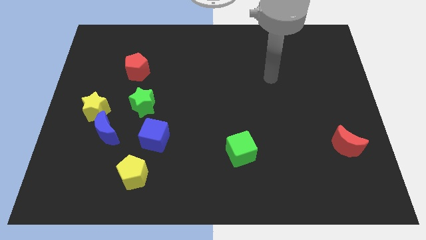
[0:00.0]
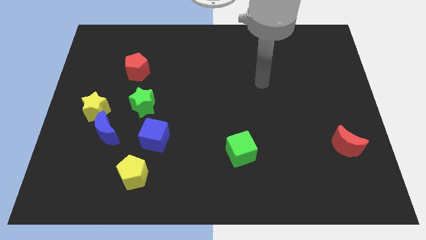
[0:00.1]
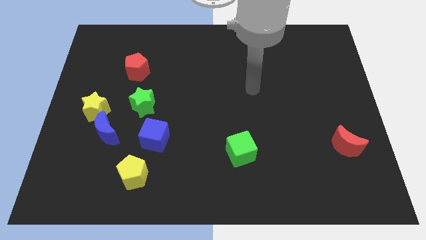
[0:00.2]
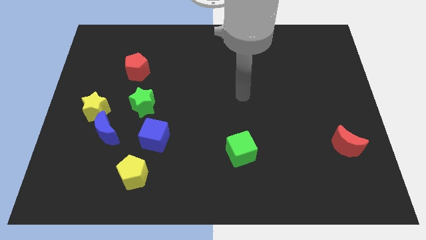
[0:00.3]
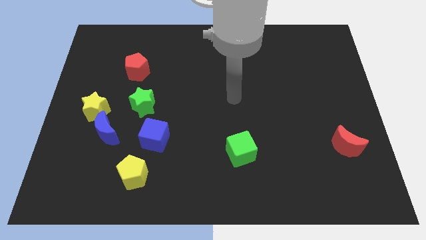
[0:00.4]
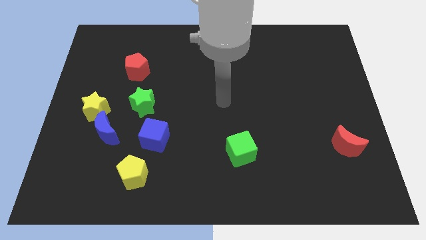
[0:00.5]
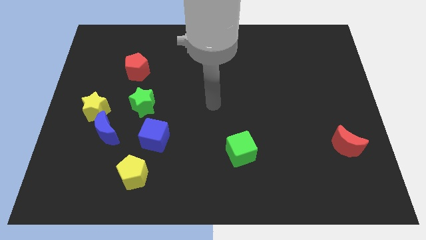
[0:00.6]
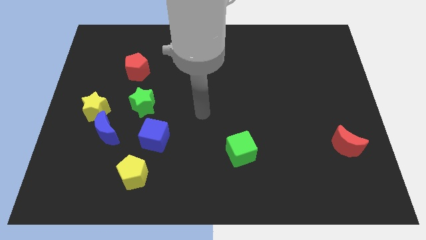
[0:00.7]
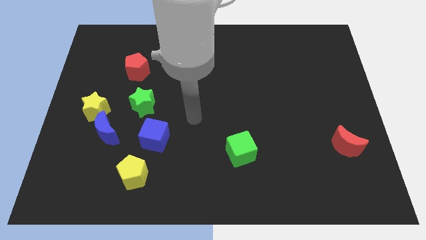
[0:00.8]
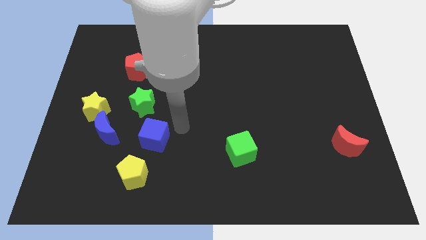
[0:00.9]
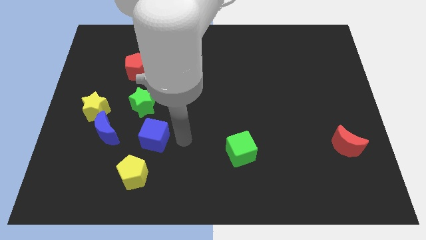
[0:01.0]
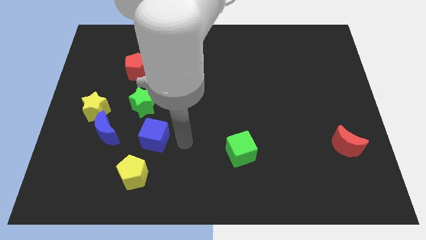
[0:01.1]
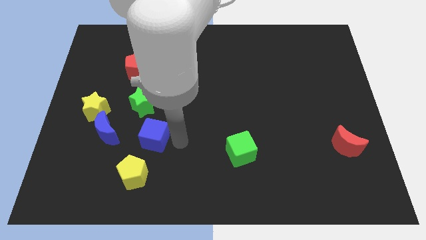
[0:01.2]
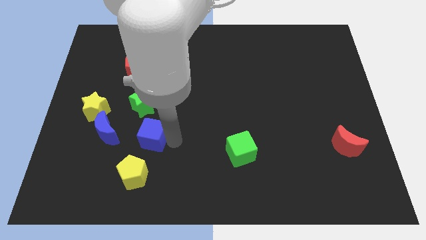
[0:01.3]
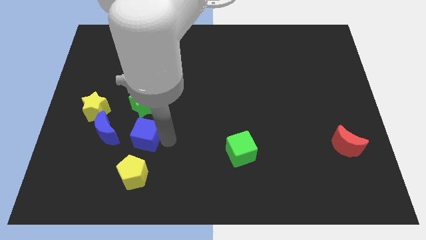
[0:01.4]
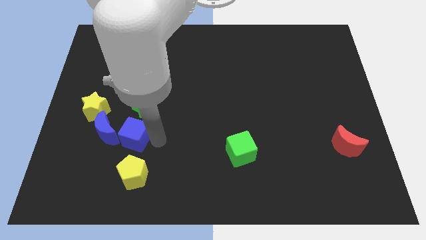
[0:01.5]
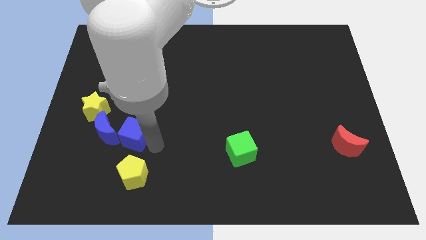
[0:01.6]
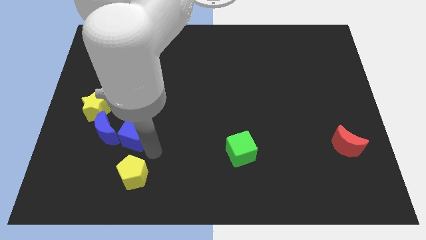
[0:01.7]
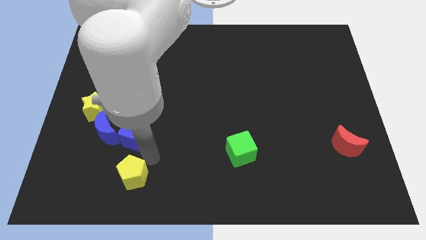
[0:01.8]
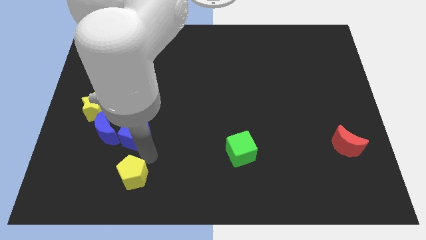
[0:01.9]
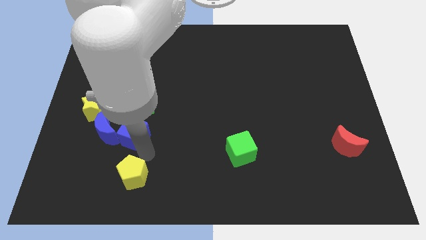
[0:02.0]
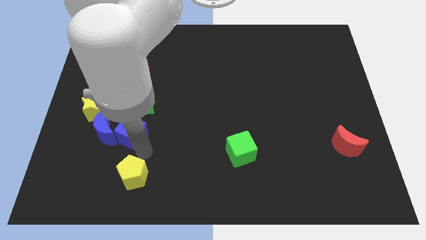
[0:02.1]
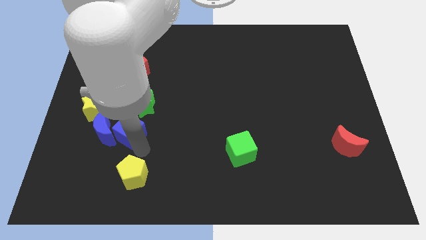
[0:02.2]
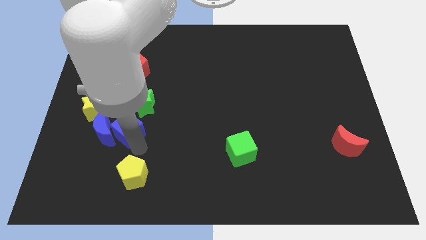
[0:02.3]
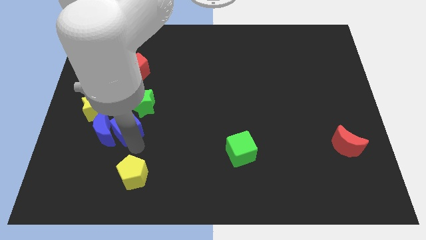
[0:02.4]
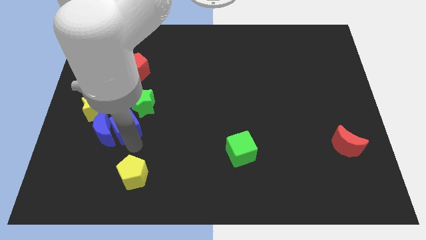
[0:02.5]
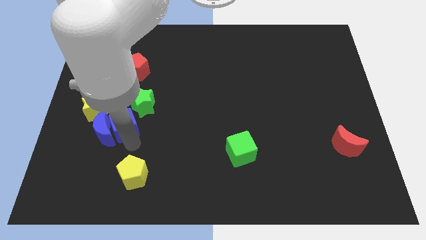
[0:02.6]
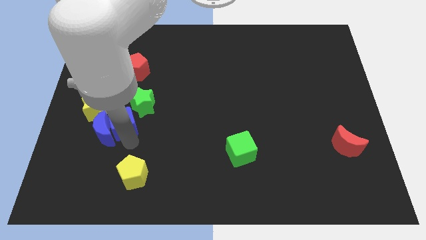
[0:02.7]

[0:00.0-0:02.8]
slightly slide the blue cube upwards and then left

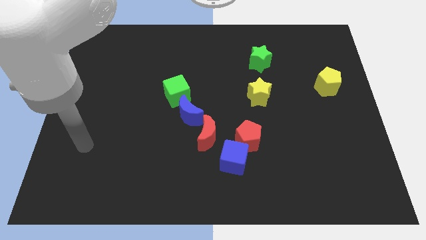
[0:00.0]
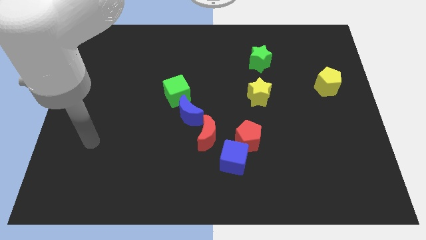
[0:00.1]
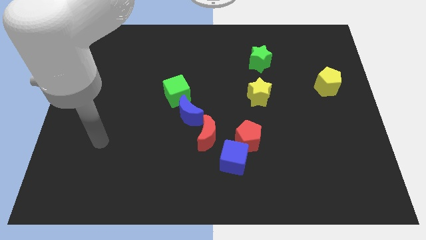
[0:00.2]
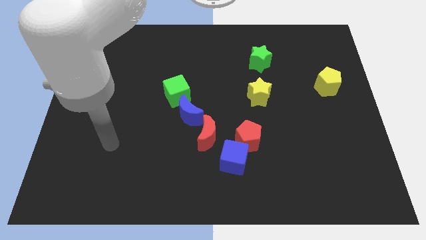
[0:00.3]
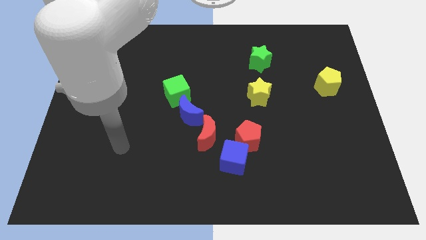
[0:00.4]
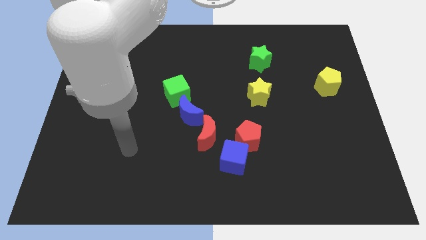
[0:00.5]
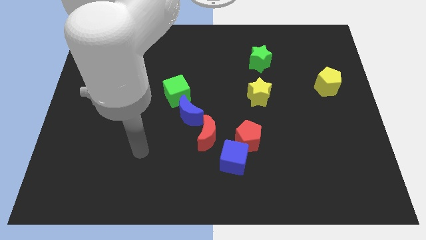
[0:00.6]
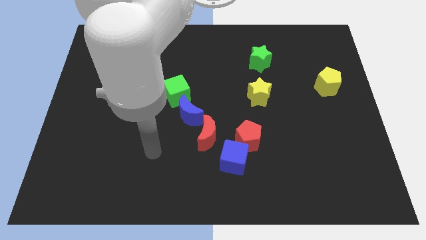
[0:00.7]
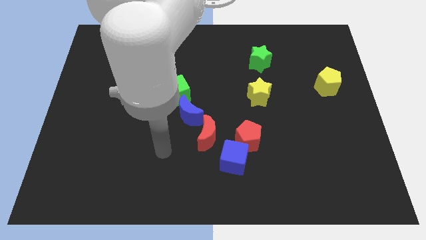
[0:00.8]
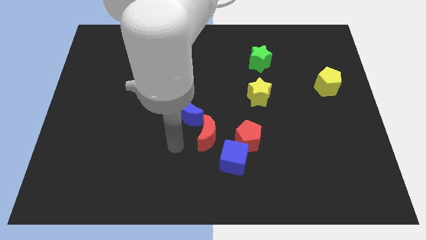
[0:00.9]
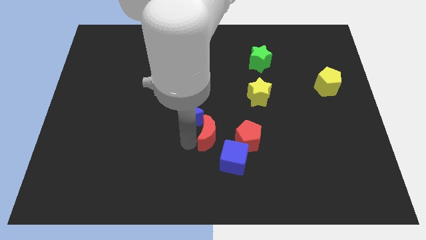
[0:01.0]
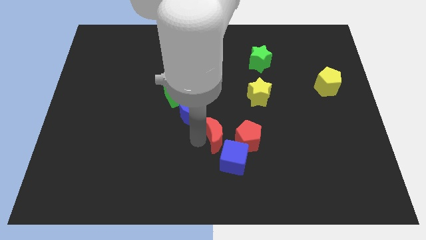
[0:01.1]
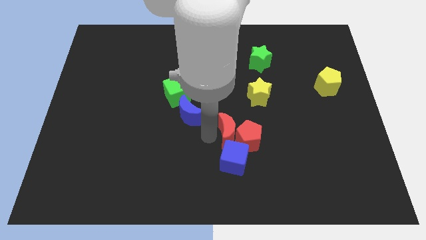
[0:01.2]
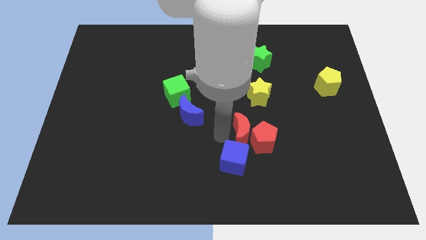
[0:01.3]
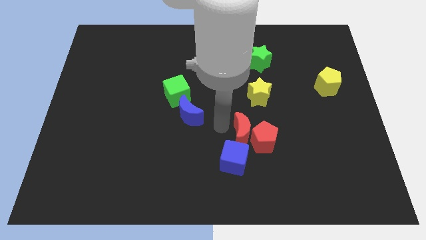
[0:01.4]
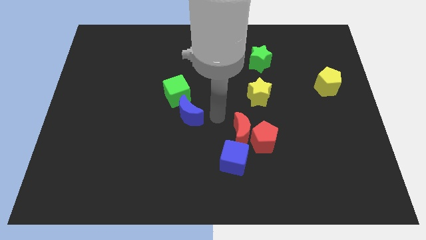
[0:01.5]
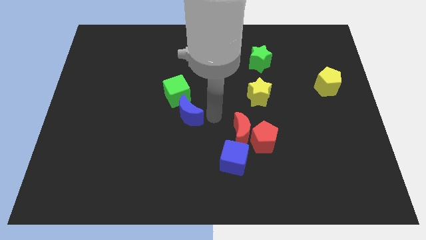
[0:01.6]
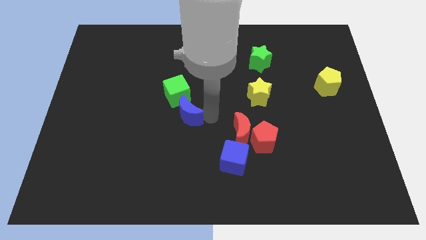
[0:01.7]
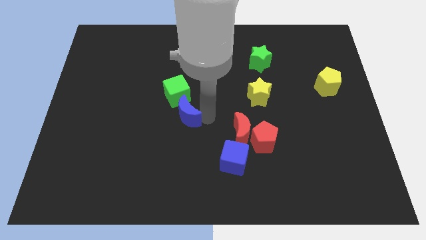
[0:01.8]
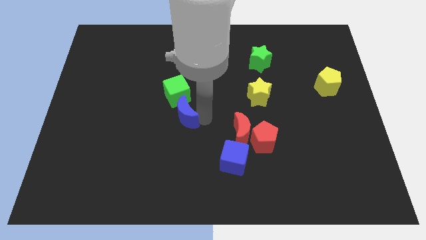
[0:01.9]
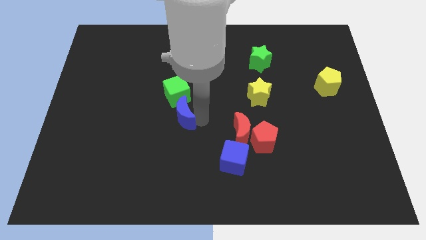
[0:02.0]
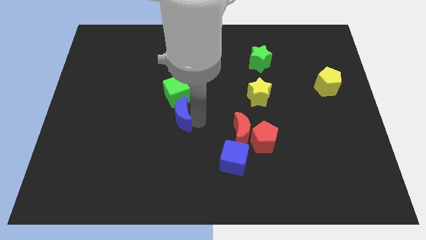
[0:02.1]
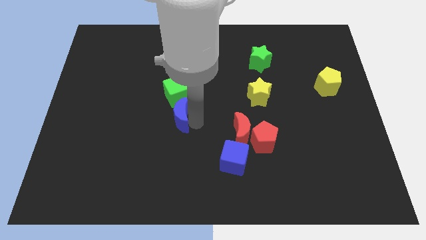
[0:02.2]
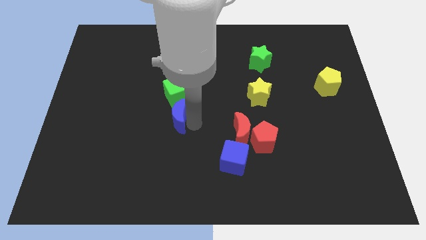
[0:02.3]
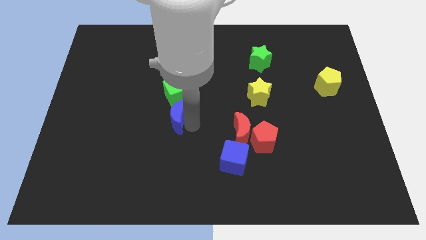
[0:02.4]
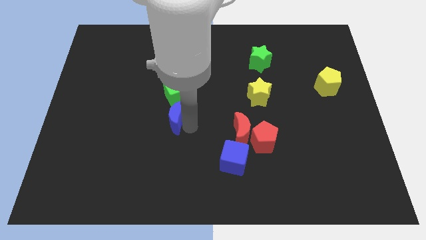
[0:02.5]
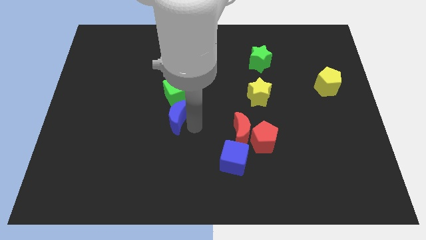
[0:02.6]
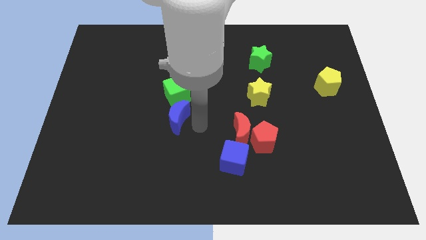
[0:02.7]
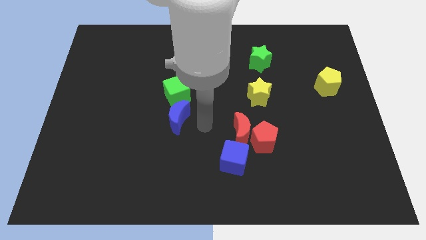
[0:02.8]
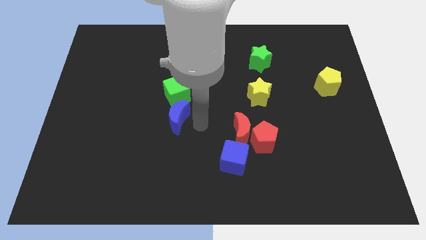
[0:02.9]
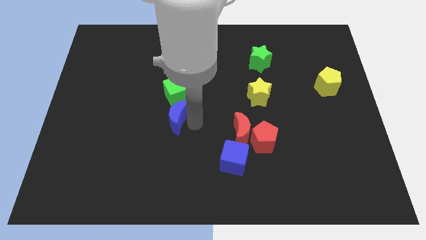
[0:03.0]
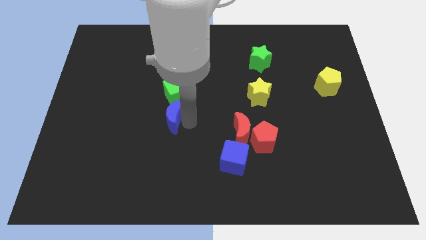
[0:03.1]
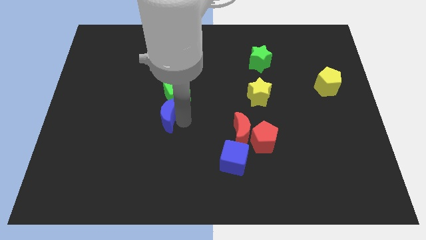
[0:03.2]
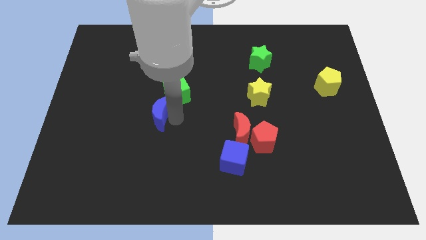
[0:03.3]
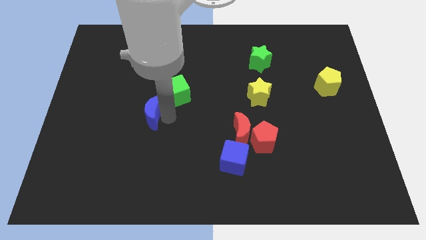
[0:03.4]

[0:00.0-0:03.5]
move the blue moon left somewhat

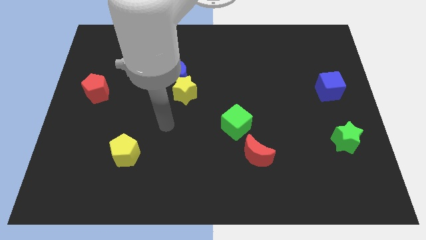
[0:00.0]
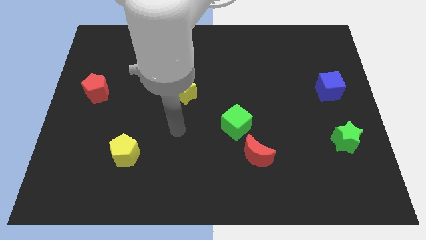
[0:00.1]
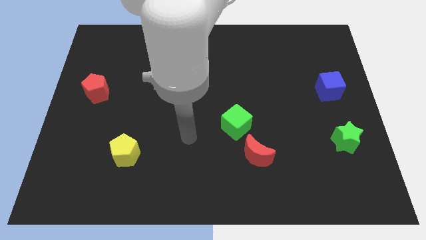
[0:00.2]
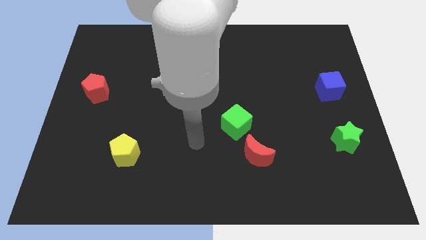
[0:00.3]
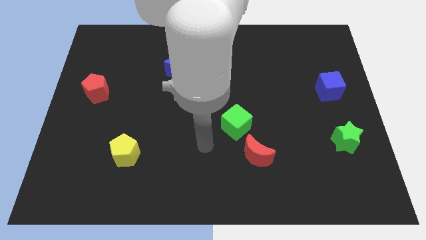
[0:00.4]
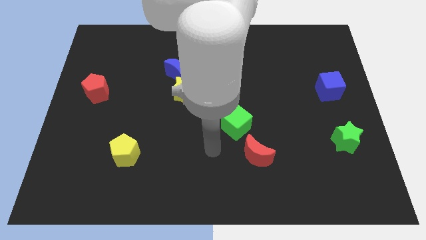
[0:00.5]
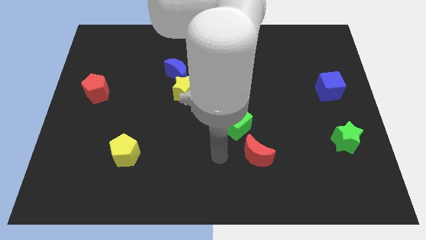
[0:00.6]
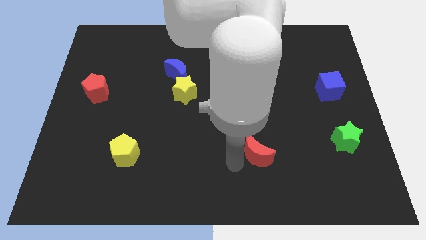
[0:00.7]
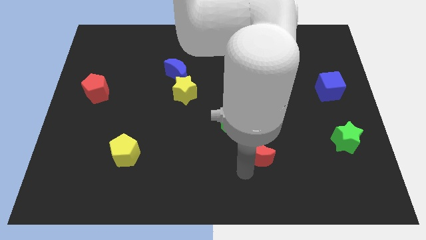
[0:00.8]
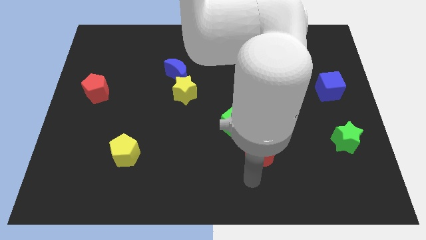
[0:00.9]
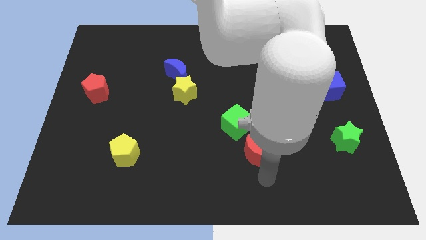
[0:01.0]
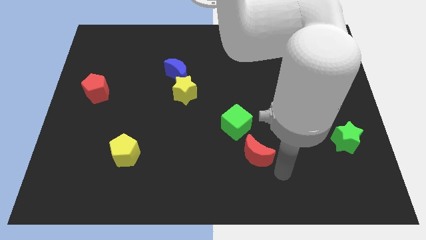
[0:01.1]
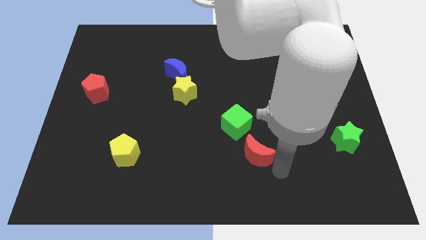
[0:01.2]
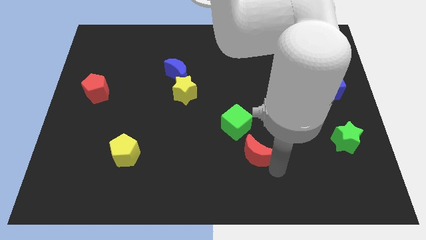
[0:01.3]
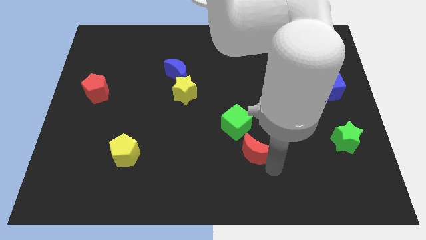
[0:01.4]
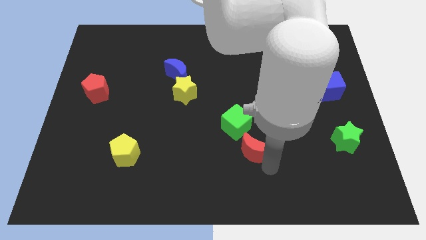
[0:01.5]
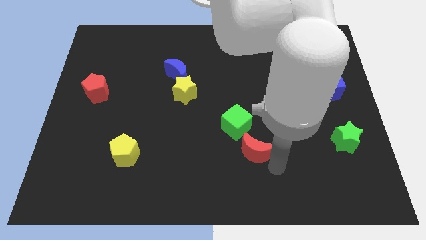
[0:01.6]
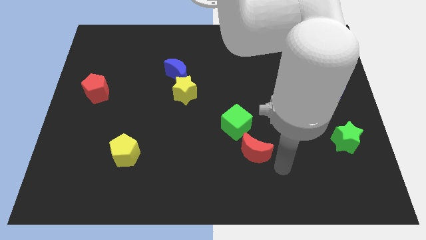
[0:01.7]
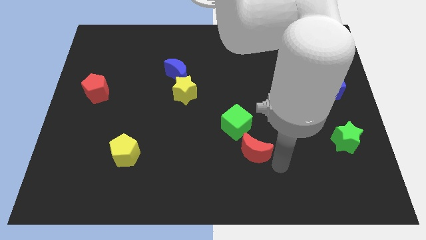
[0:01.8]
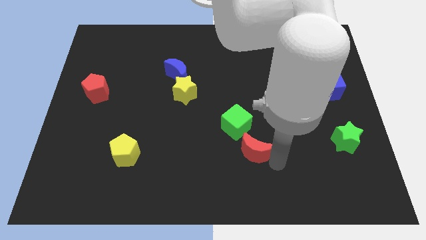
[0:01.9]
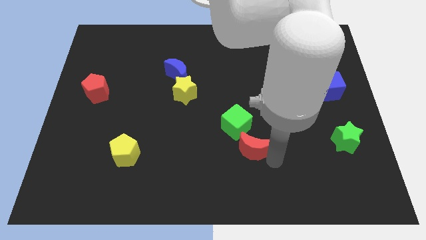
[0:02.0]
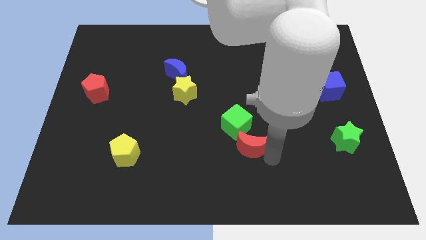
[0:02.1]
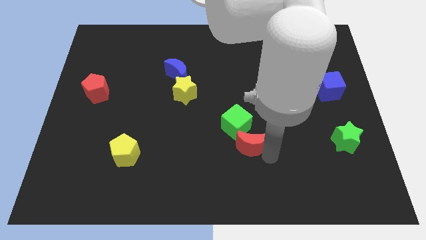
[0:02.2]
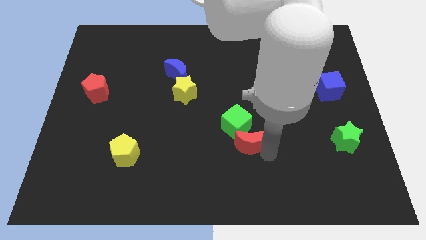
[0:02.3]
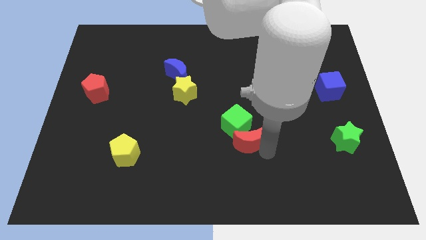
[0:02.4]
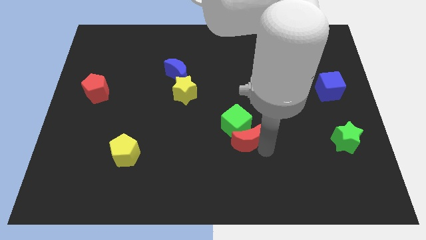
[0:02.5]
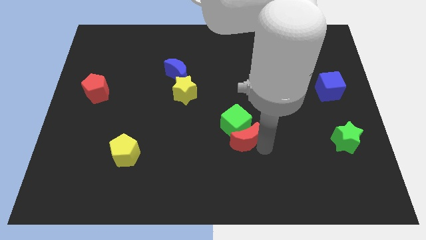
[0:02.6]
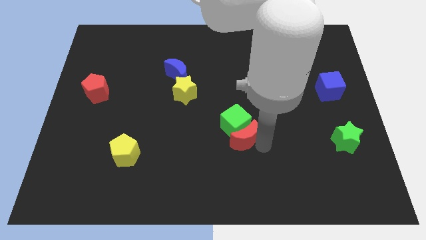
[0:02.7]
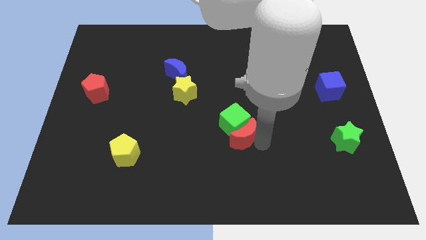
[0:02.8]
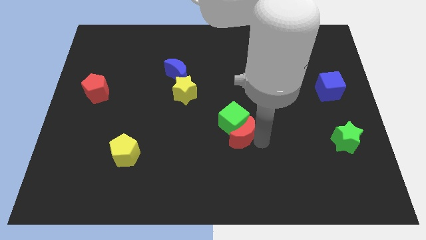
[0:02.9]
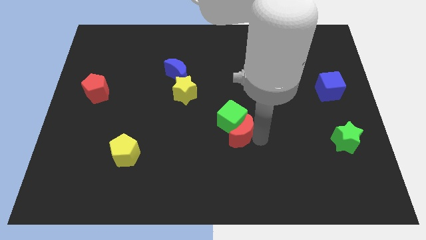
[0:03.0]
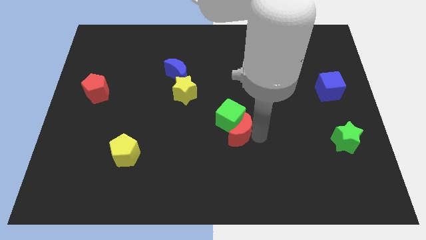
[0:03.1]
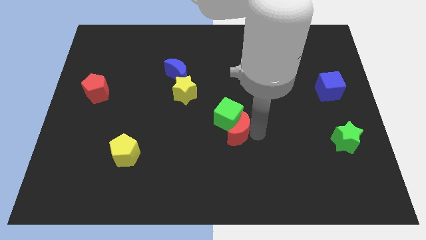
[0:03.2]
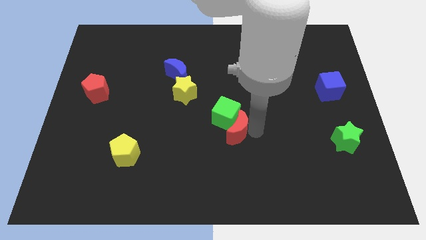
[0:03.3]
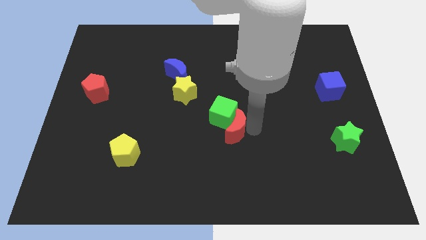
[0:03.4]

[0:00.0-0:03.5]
move the red moon a little bit upwards and left diagonally
